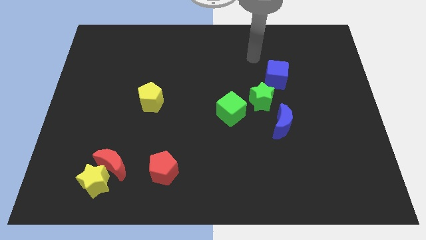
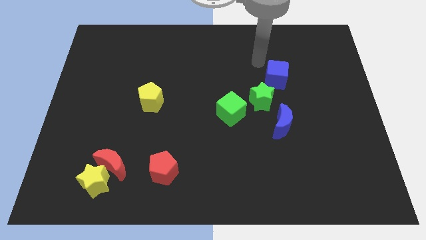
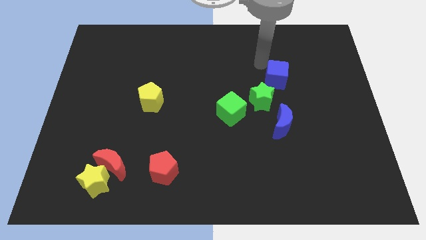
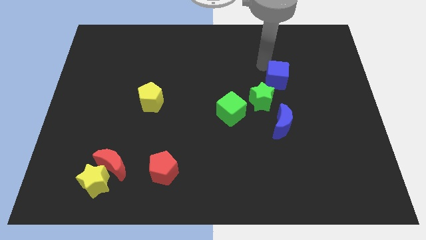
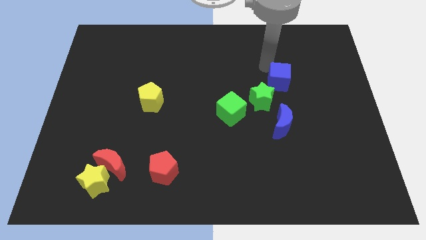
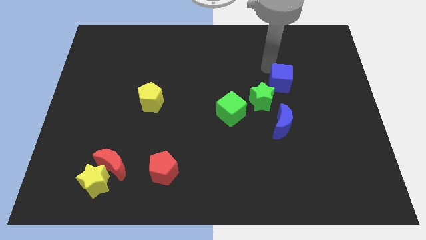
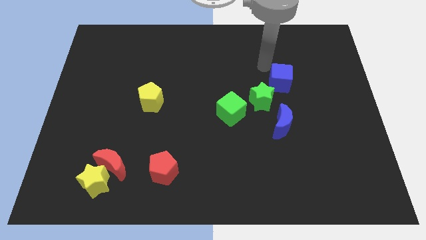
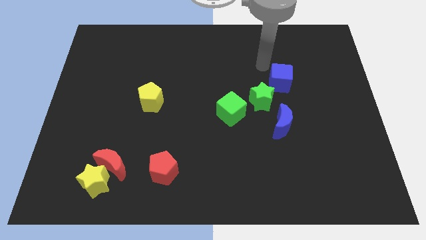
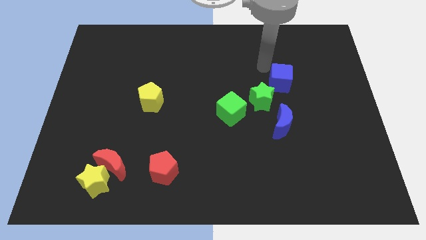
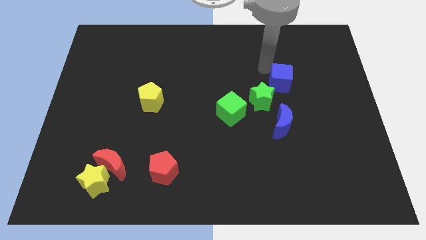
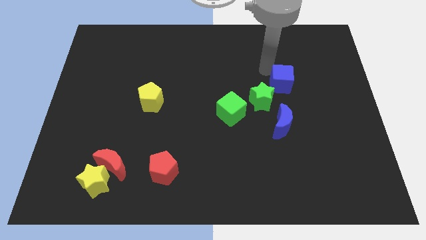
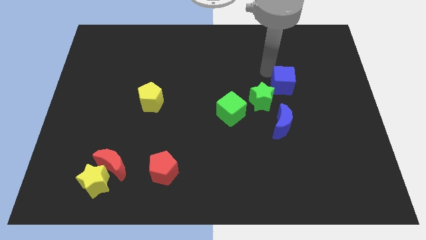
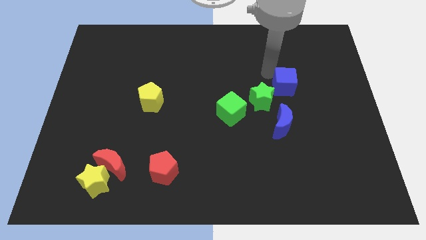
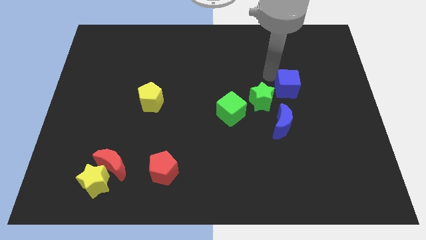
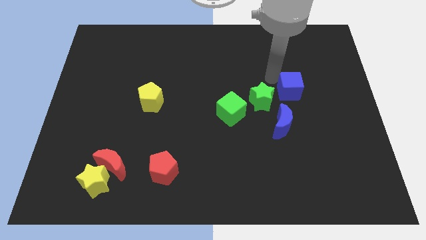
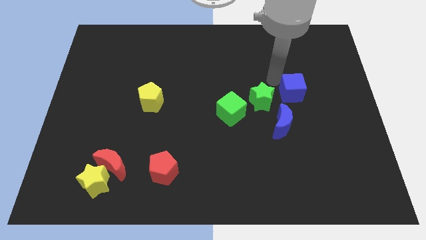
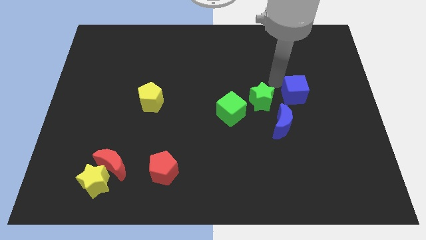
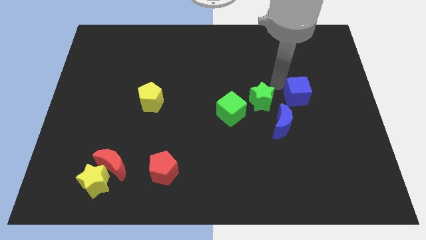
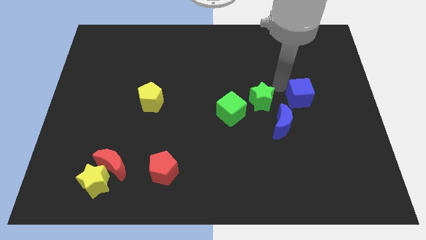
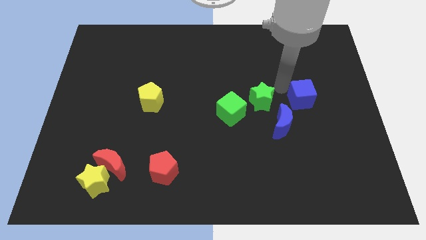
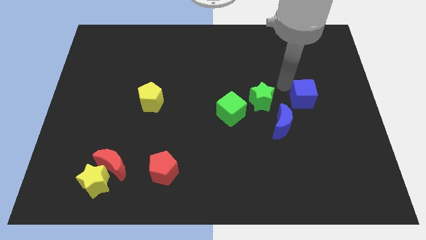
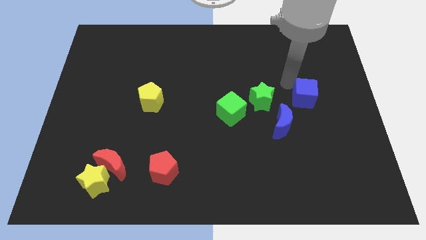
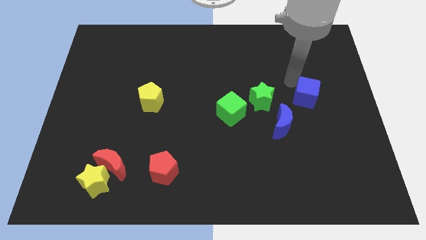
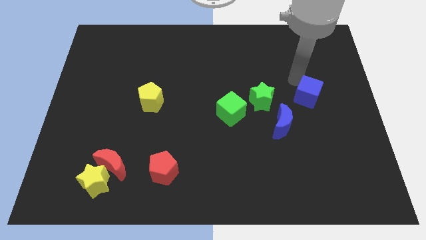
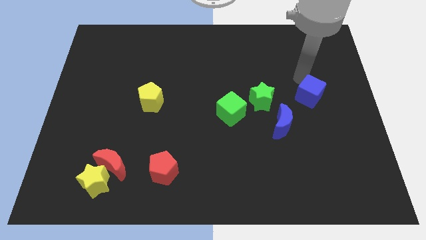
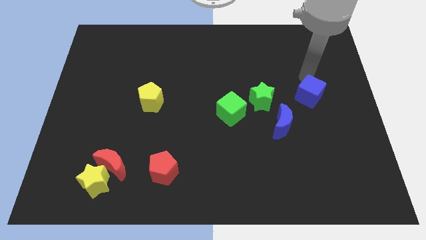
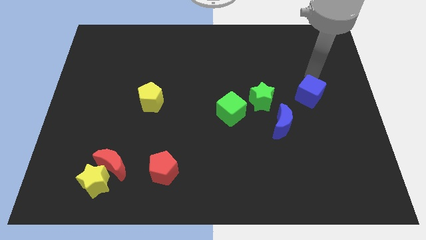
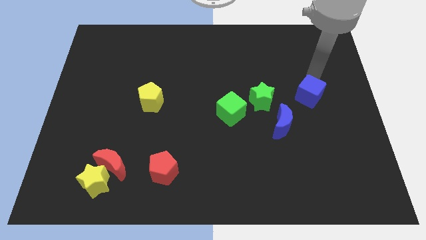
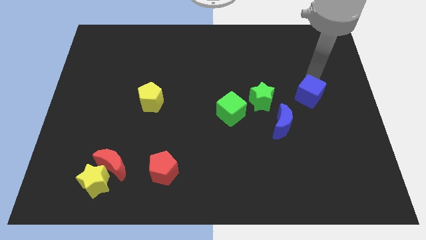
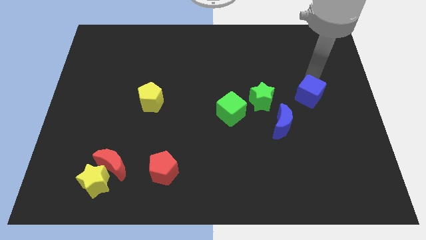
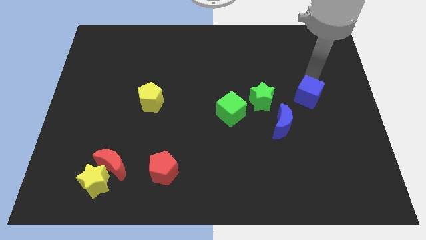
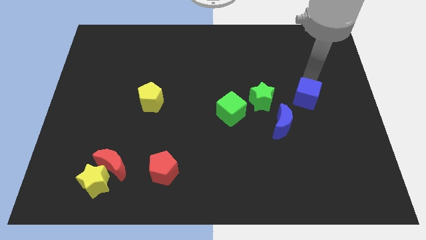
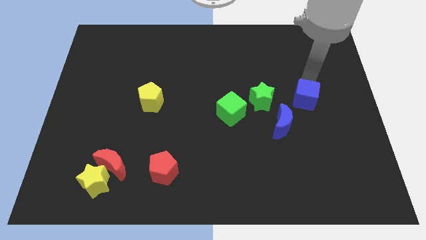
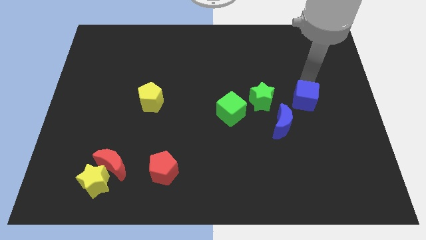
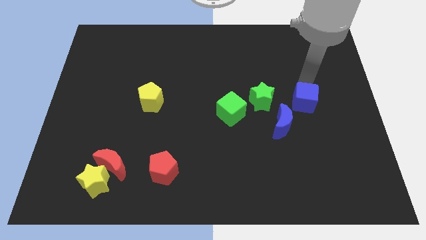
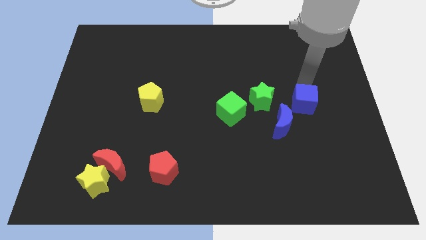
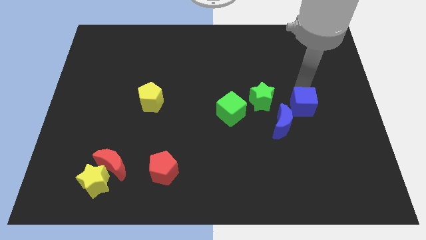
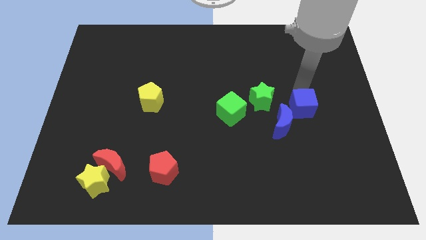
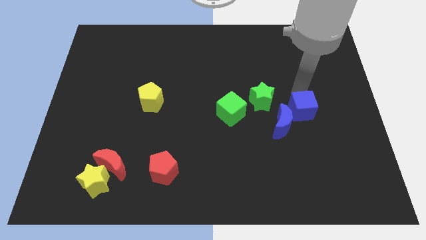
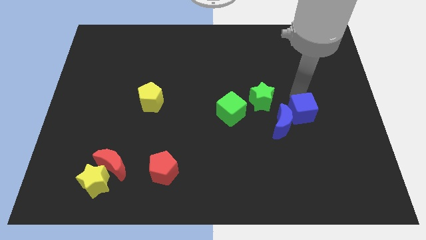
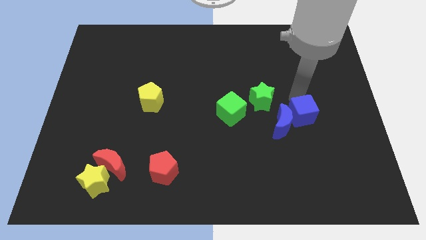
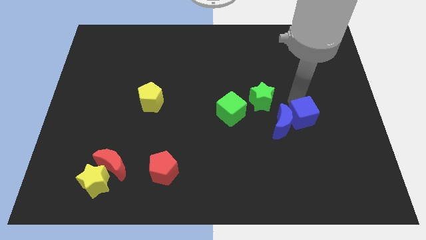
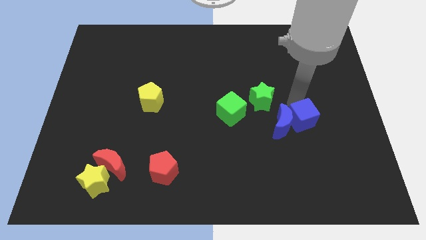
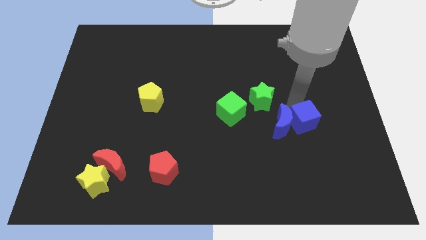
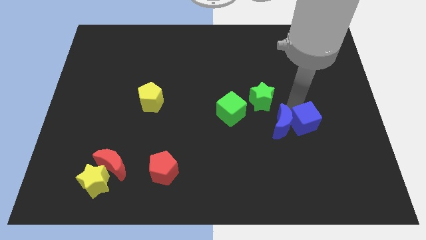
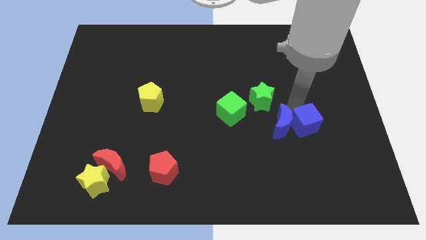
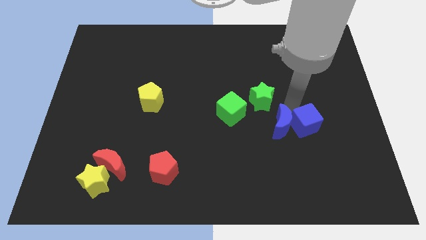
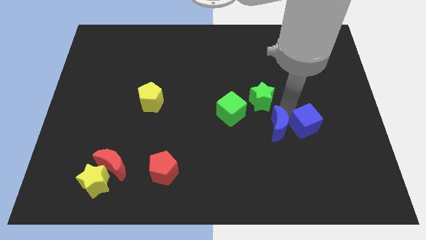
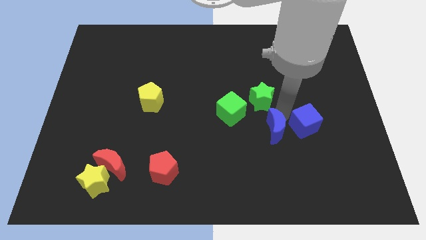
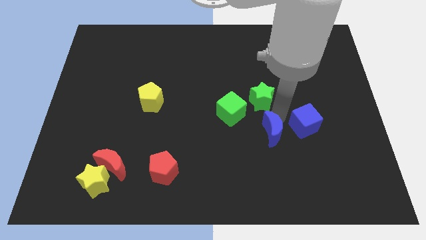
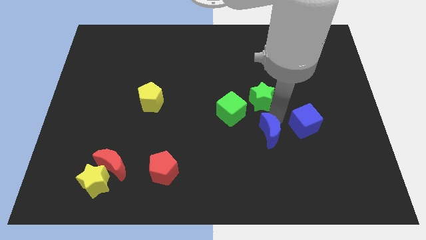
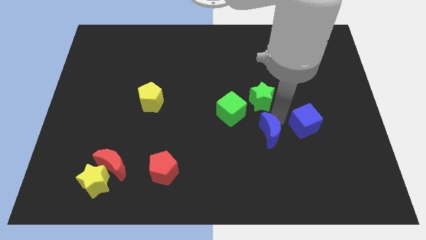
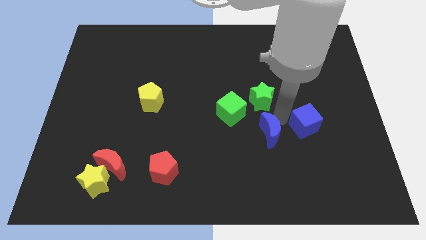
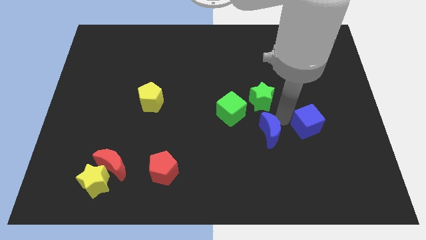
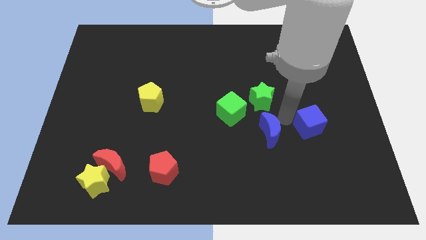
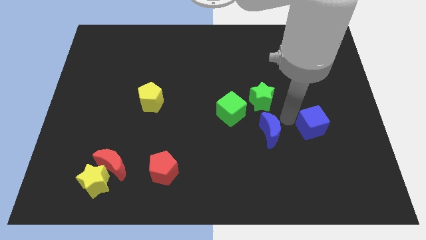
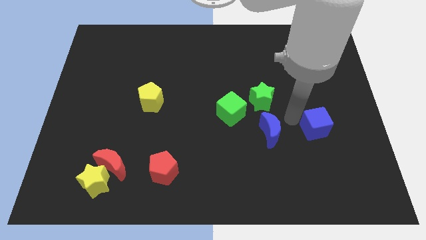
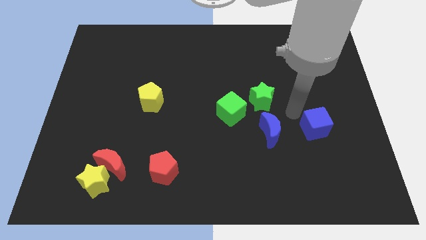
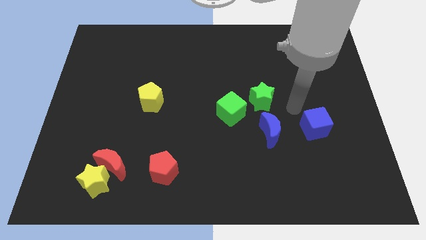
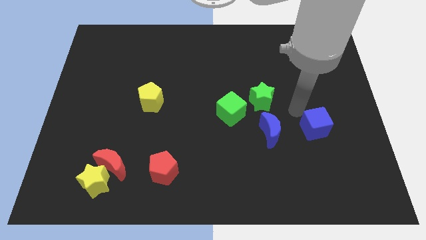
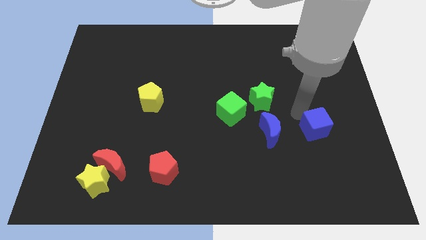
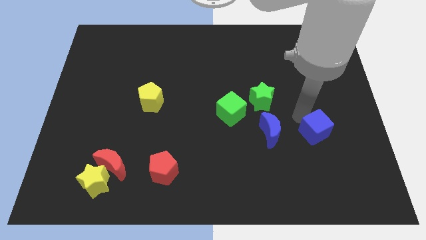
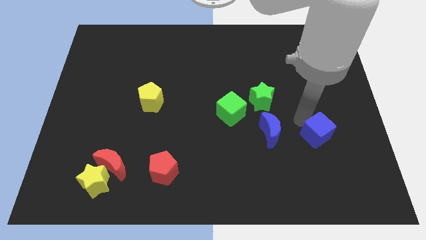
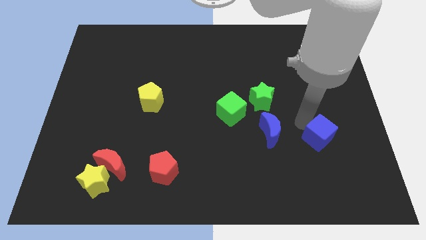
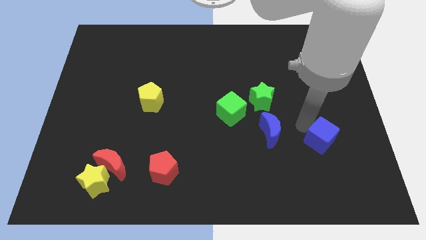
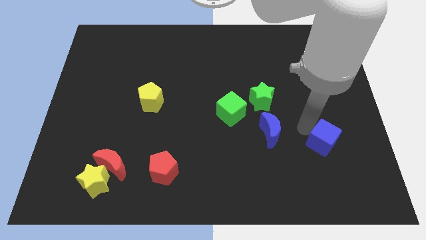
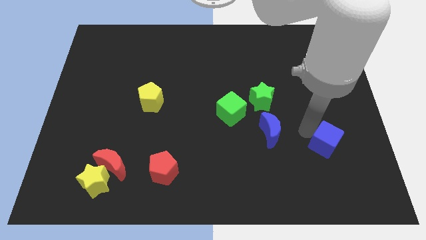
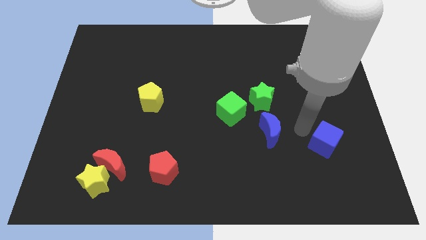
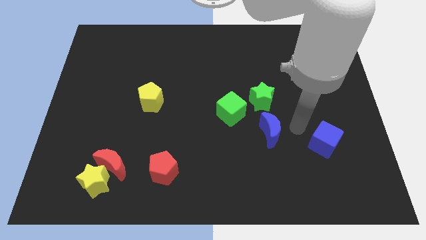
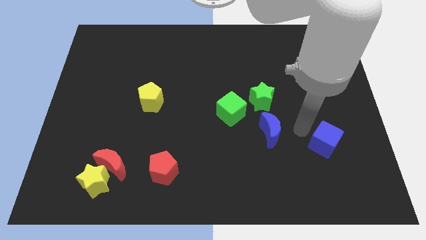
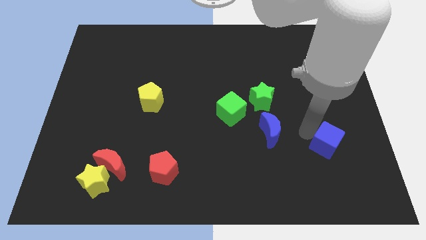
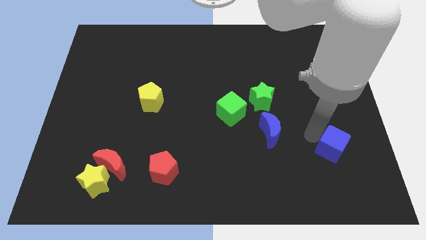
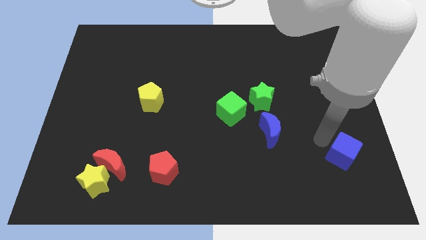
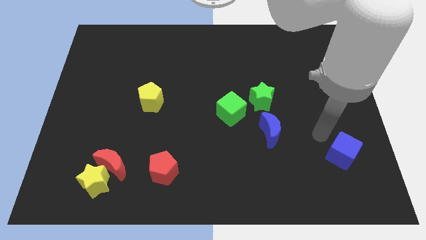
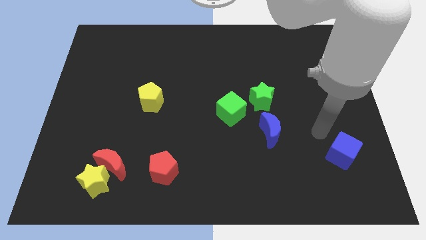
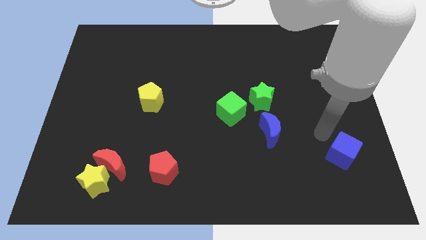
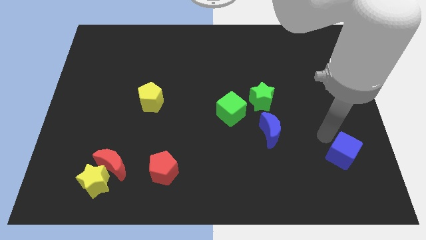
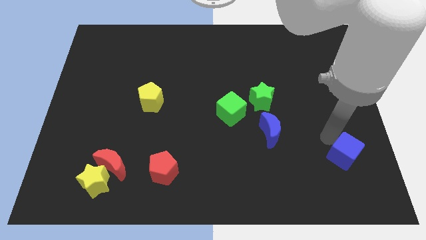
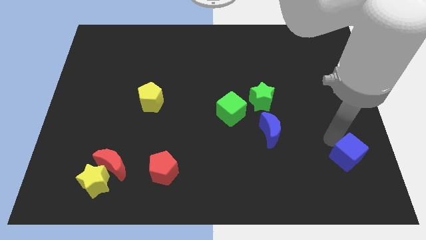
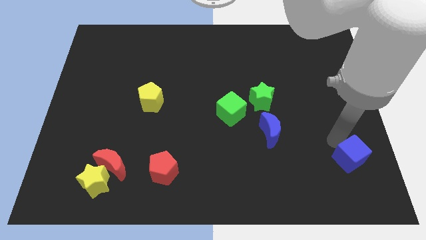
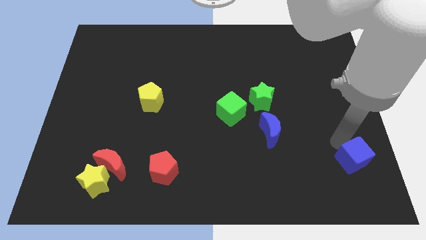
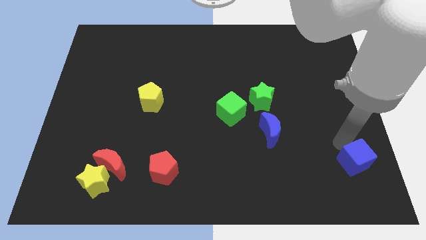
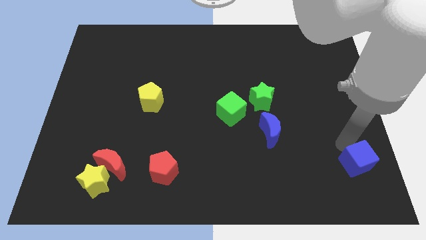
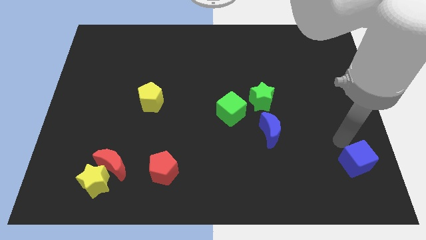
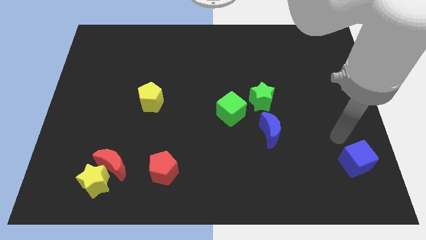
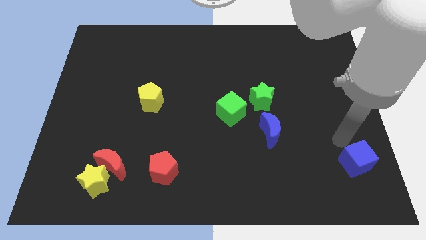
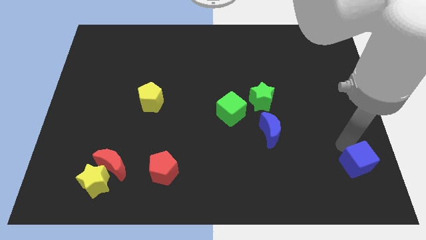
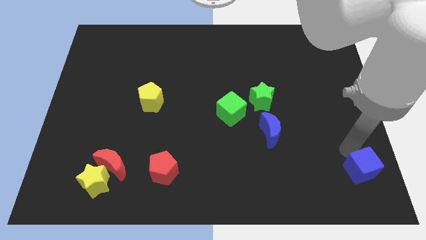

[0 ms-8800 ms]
move the blue cube to the bottom right
